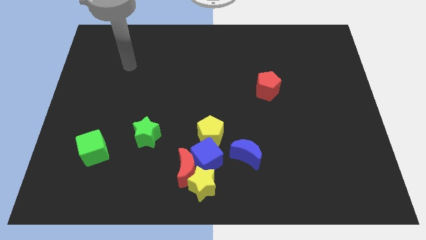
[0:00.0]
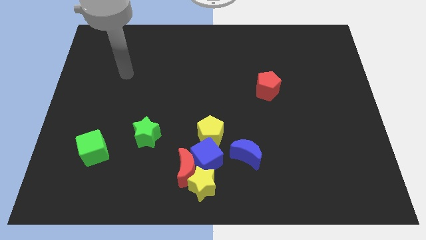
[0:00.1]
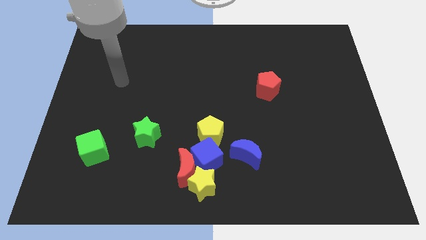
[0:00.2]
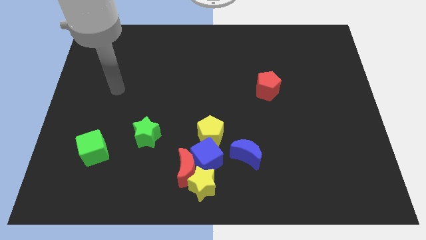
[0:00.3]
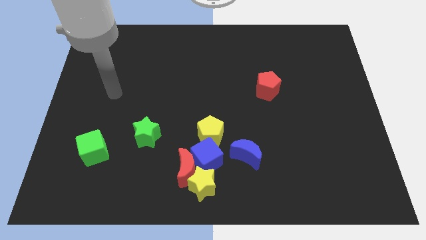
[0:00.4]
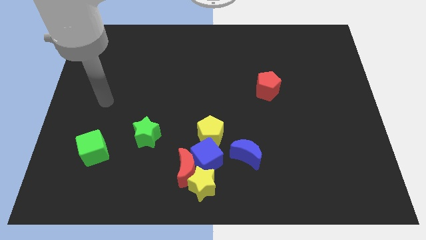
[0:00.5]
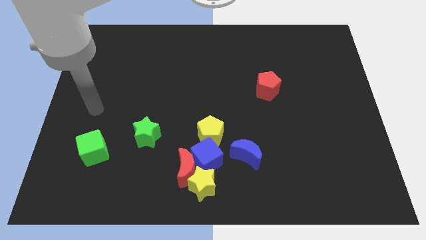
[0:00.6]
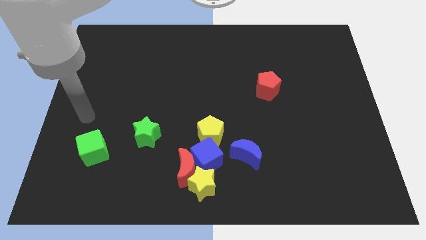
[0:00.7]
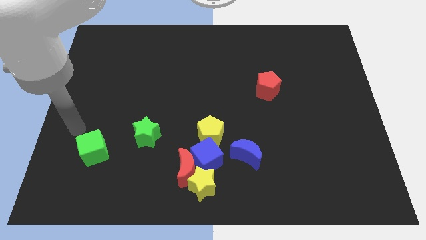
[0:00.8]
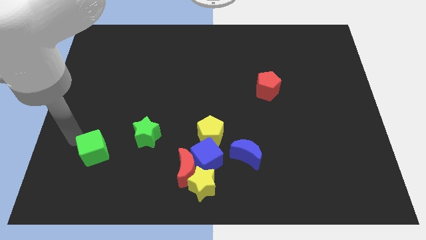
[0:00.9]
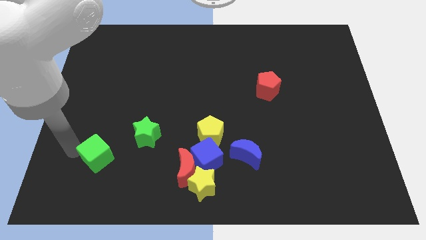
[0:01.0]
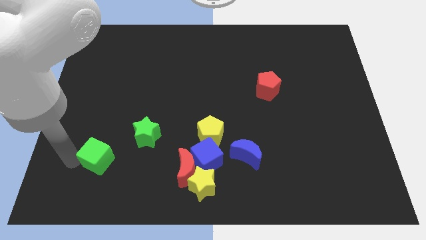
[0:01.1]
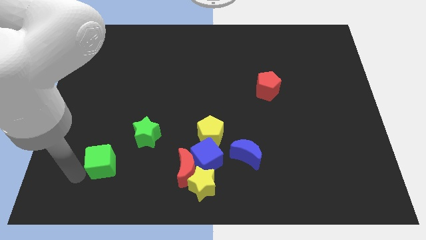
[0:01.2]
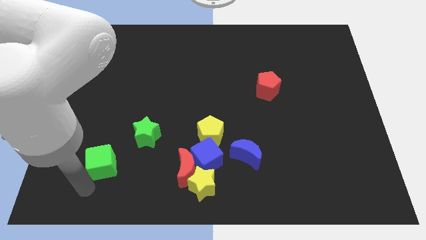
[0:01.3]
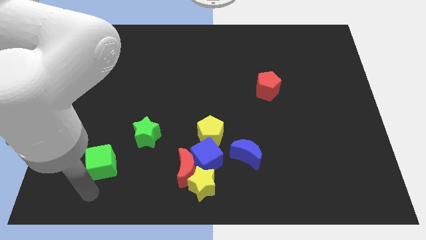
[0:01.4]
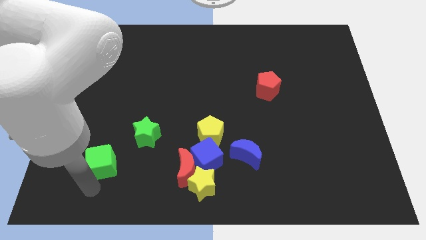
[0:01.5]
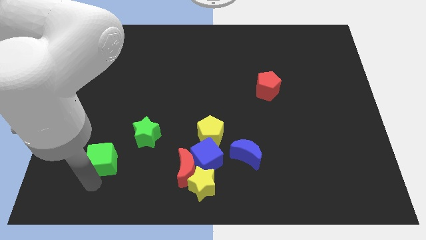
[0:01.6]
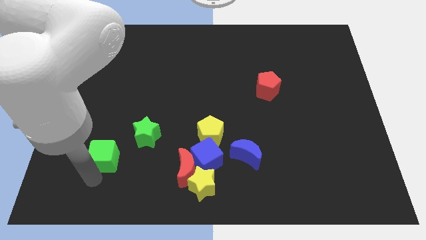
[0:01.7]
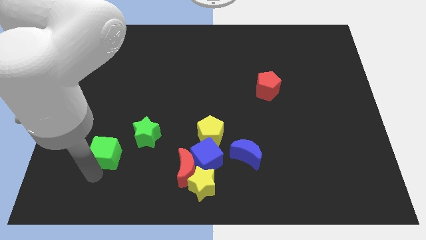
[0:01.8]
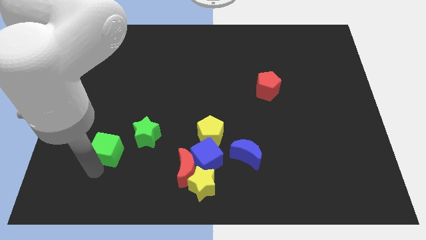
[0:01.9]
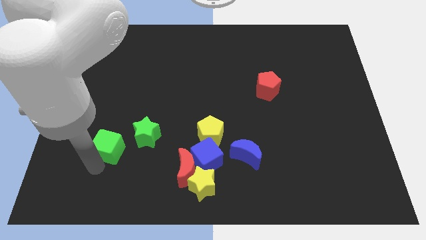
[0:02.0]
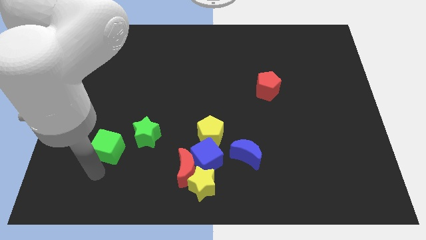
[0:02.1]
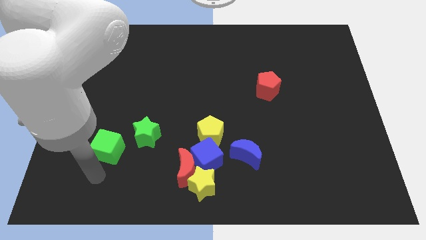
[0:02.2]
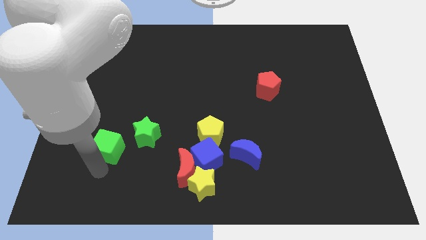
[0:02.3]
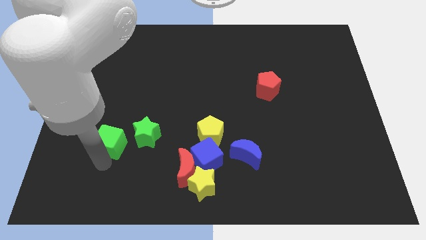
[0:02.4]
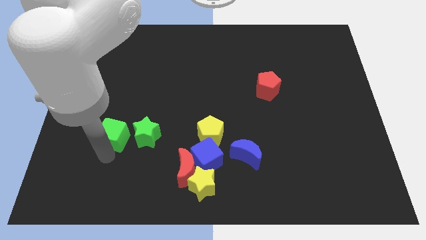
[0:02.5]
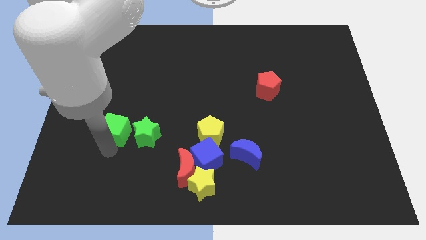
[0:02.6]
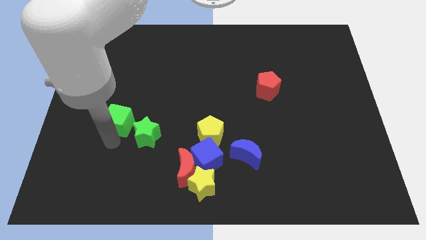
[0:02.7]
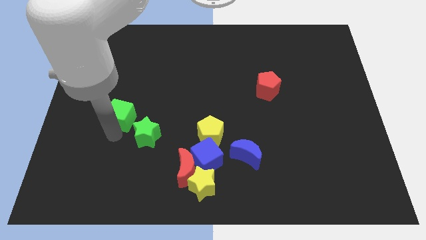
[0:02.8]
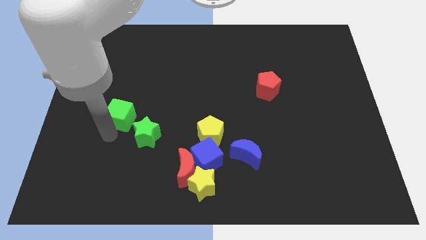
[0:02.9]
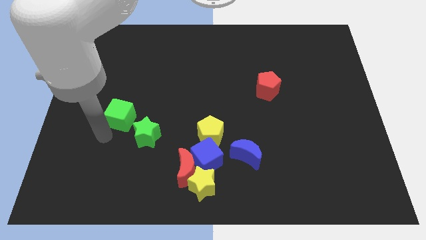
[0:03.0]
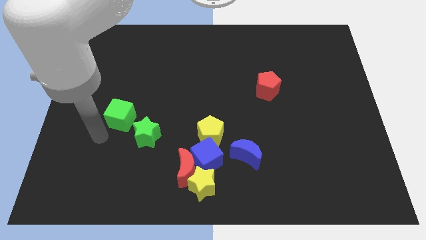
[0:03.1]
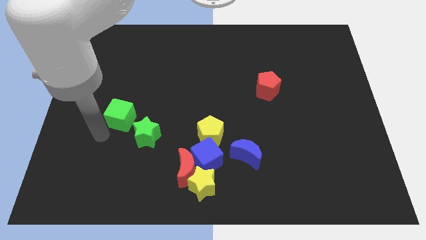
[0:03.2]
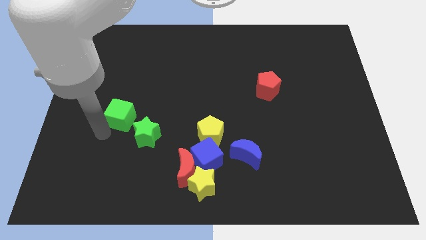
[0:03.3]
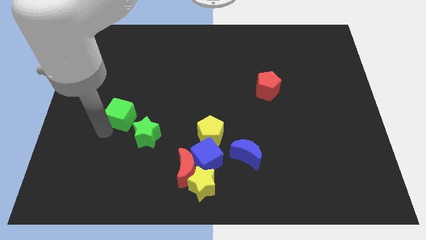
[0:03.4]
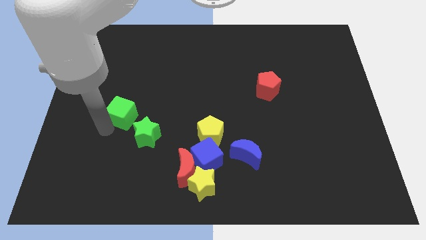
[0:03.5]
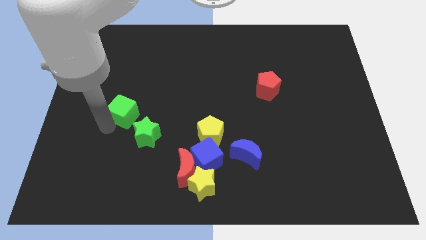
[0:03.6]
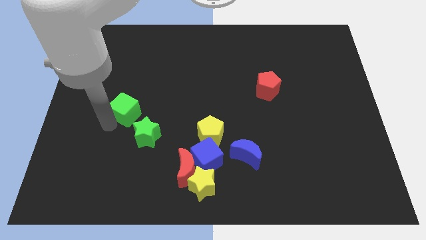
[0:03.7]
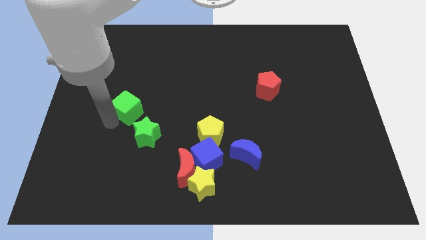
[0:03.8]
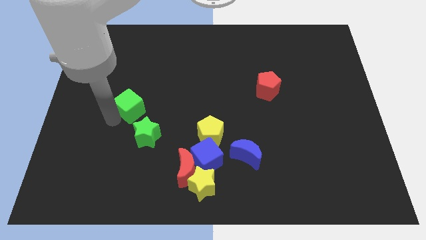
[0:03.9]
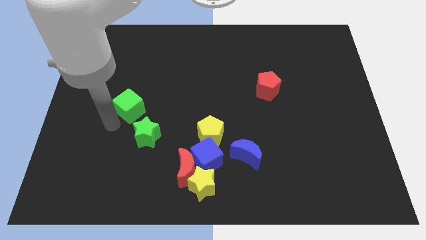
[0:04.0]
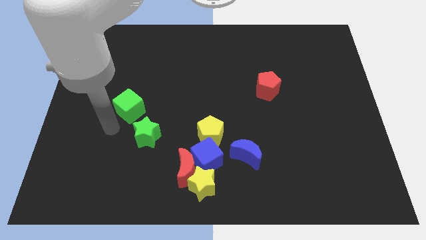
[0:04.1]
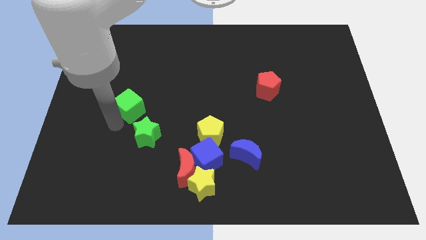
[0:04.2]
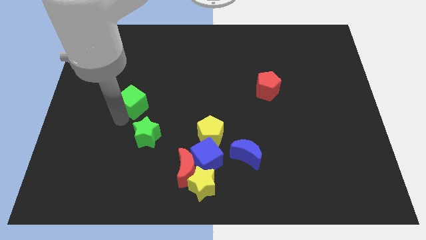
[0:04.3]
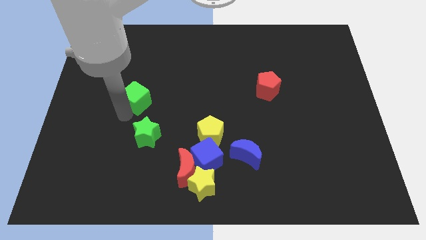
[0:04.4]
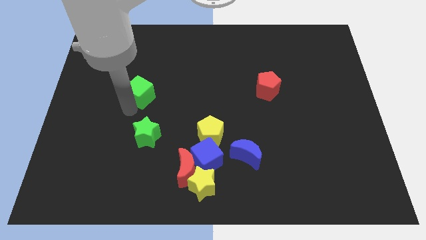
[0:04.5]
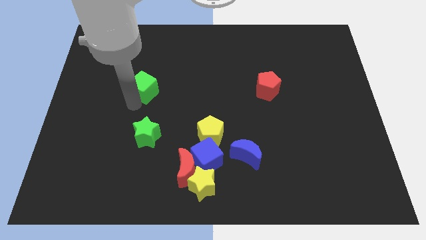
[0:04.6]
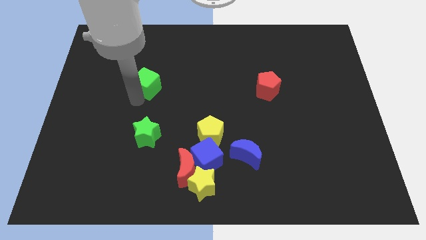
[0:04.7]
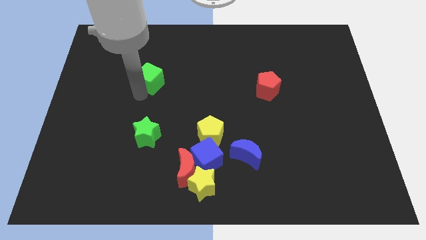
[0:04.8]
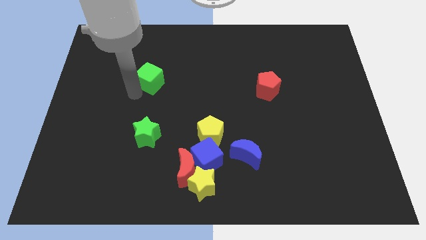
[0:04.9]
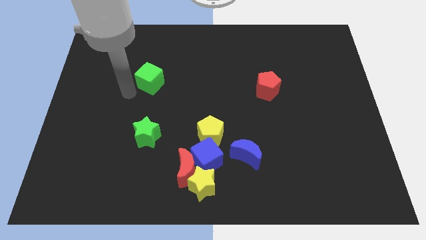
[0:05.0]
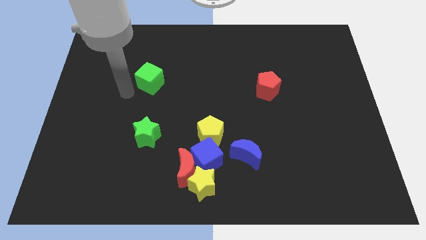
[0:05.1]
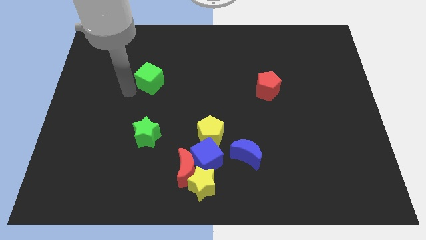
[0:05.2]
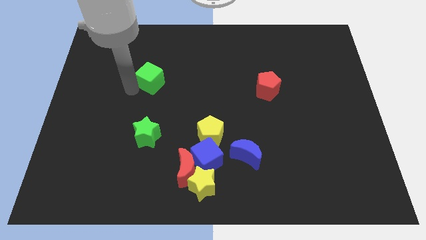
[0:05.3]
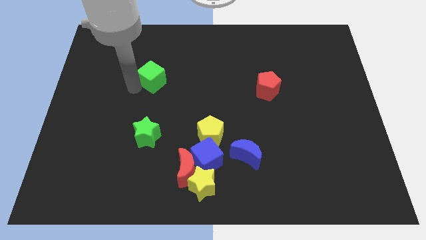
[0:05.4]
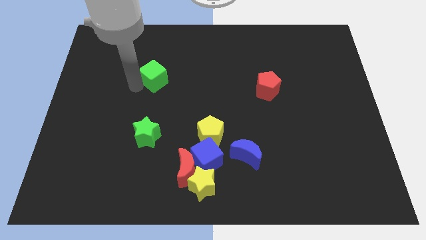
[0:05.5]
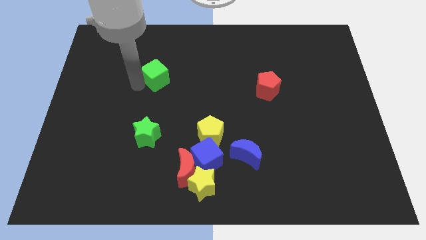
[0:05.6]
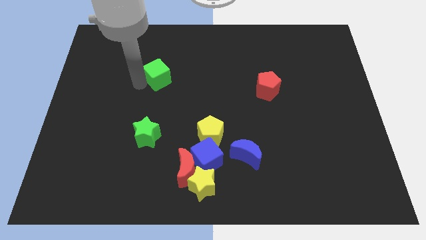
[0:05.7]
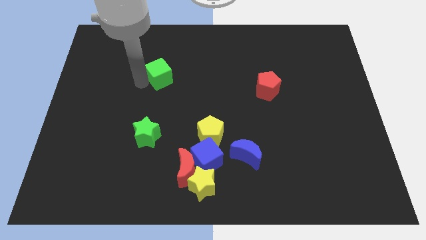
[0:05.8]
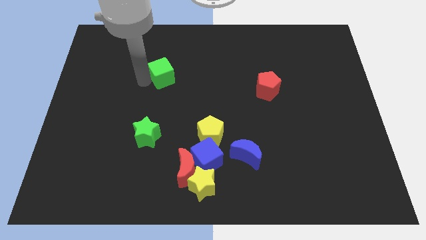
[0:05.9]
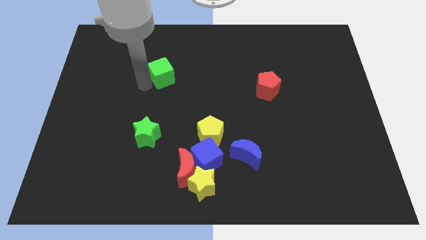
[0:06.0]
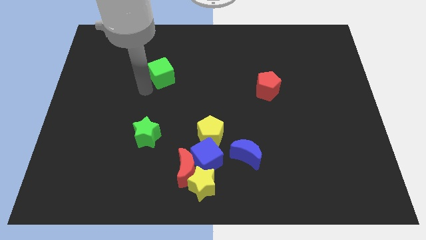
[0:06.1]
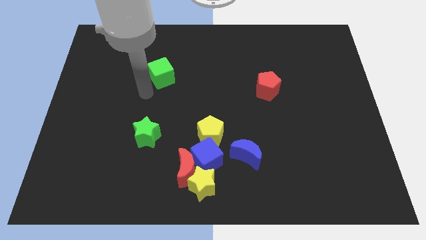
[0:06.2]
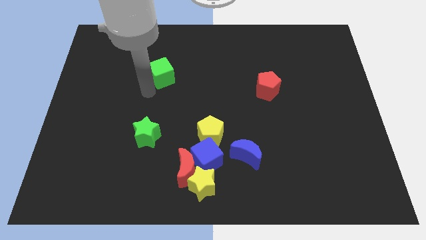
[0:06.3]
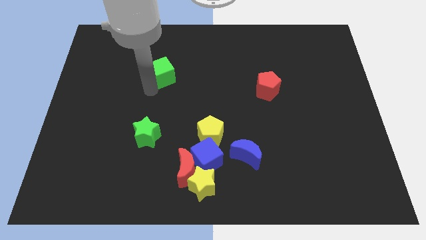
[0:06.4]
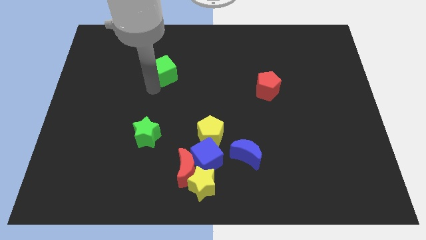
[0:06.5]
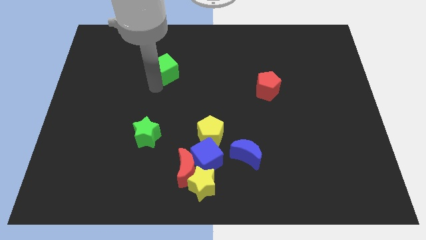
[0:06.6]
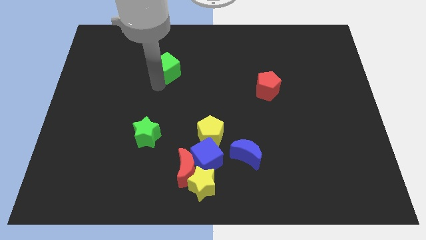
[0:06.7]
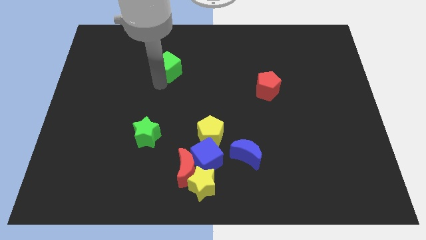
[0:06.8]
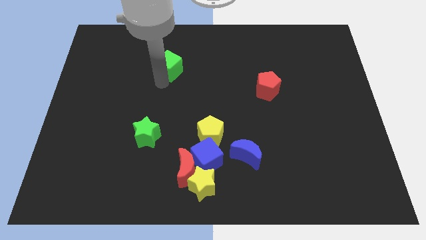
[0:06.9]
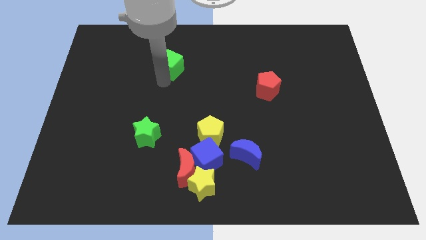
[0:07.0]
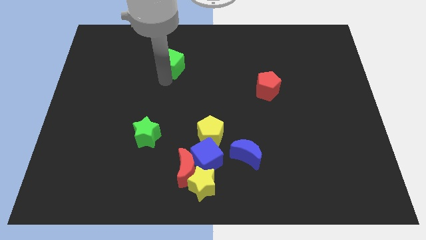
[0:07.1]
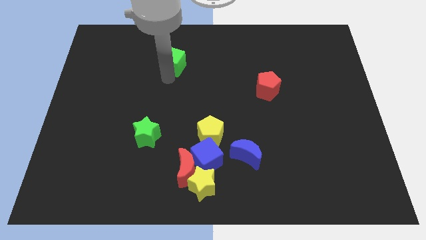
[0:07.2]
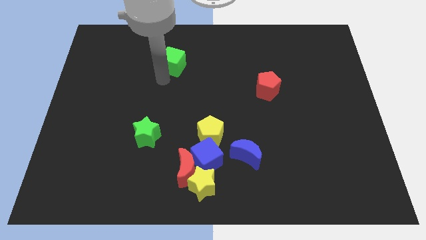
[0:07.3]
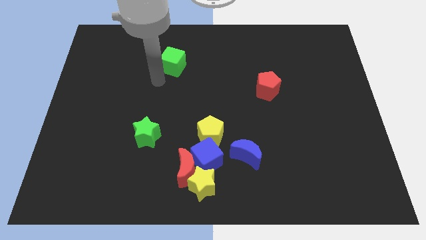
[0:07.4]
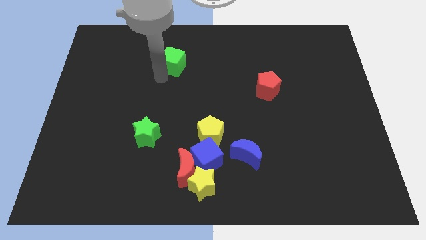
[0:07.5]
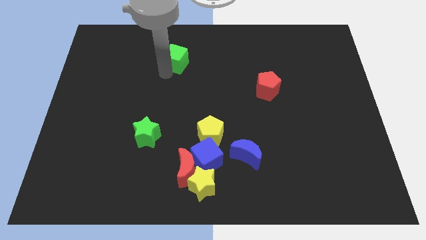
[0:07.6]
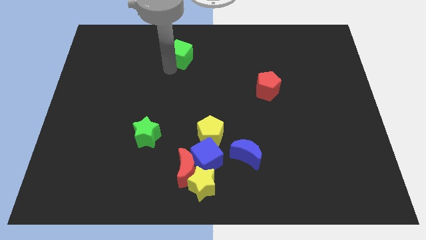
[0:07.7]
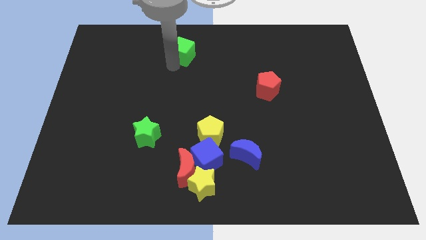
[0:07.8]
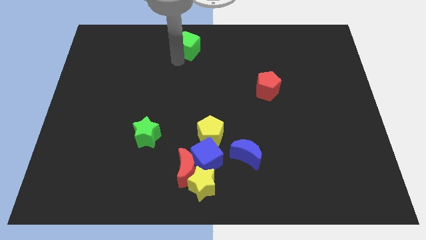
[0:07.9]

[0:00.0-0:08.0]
slide the green cube to the top side
